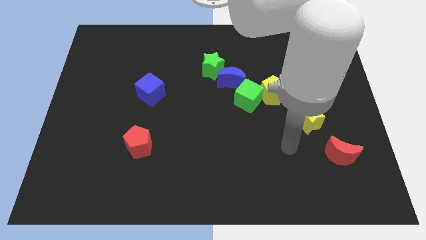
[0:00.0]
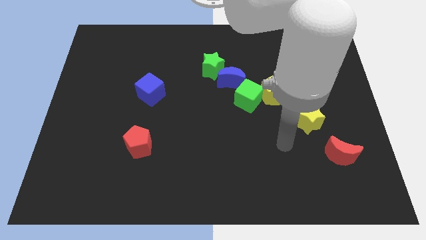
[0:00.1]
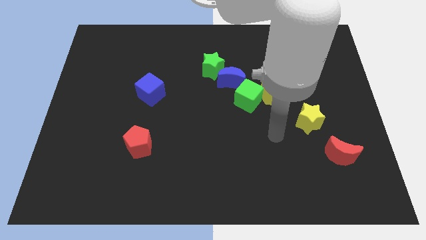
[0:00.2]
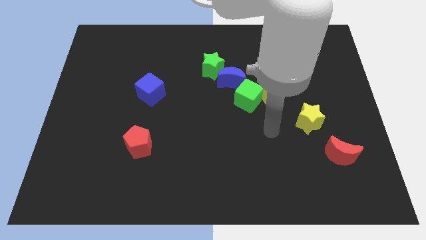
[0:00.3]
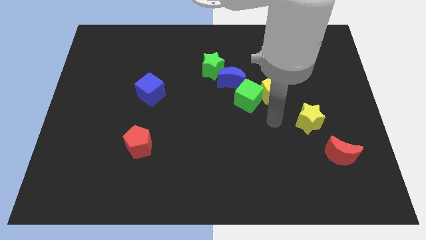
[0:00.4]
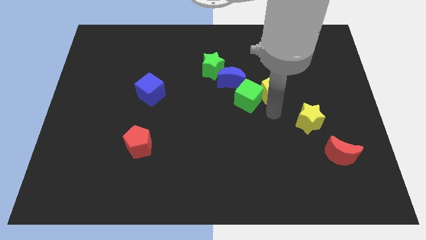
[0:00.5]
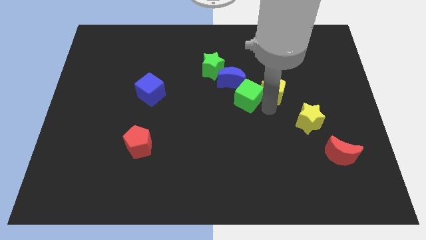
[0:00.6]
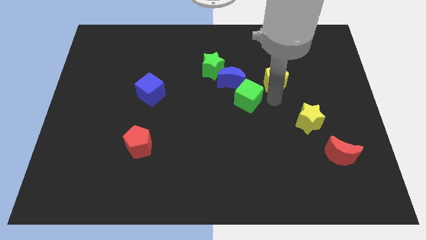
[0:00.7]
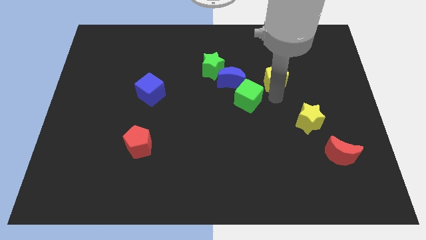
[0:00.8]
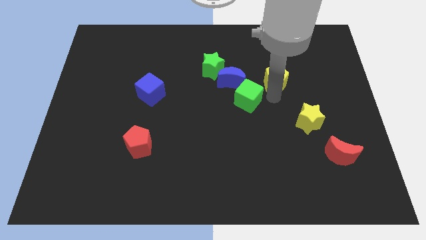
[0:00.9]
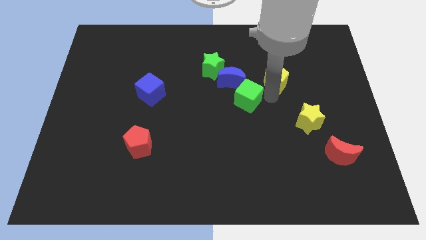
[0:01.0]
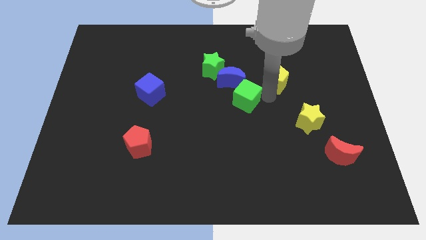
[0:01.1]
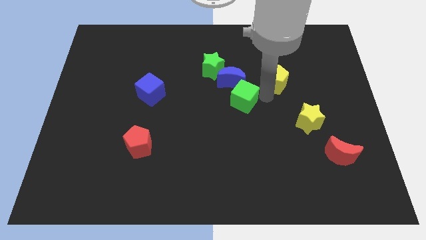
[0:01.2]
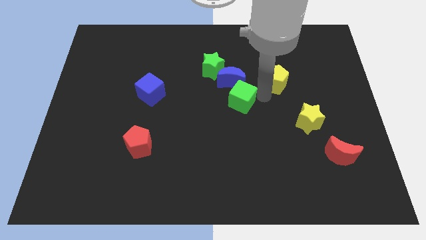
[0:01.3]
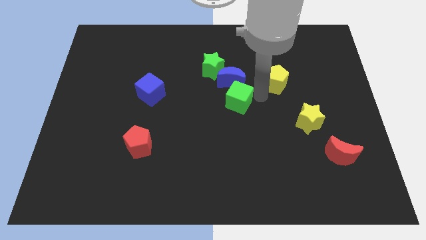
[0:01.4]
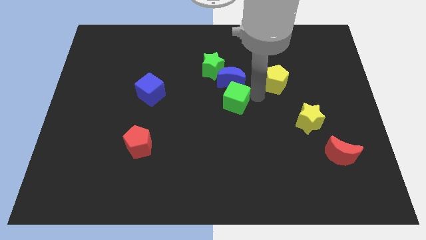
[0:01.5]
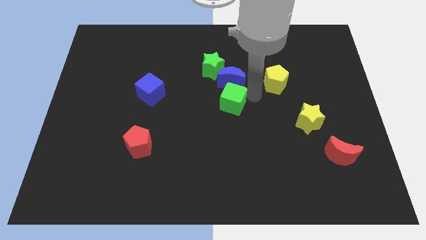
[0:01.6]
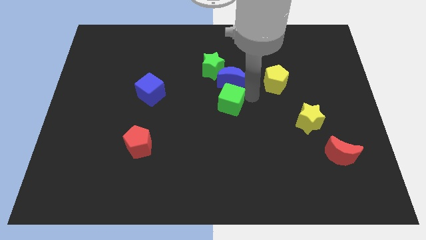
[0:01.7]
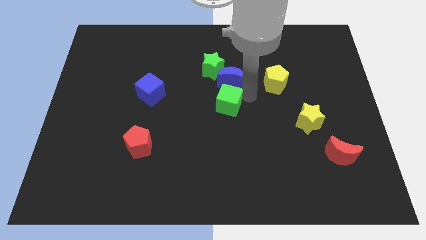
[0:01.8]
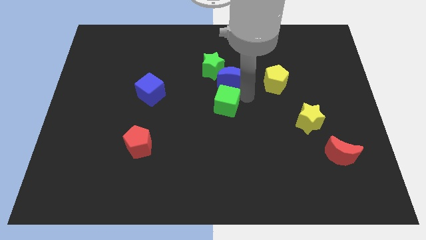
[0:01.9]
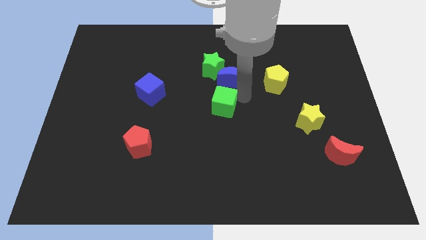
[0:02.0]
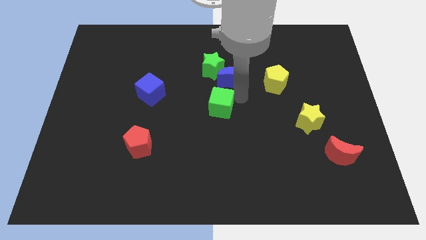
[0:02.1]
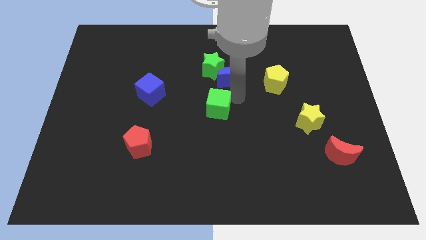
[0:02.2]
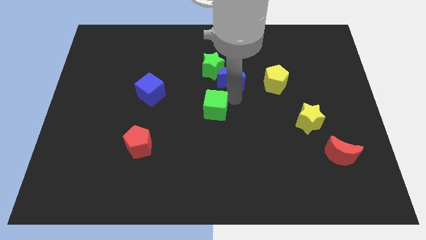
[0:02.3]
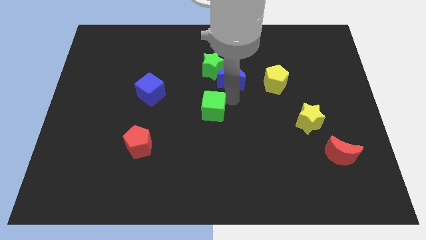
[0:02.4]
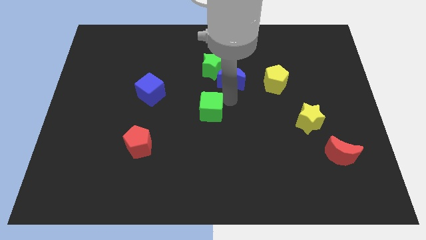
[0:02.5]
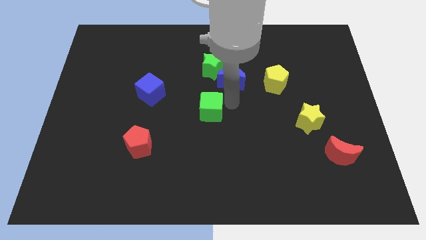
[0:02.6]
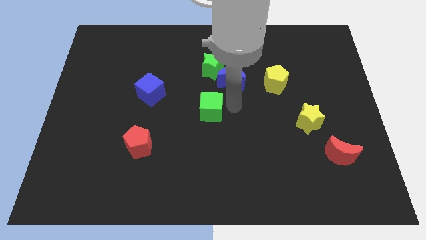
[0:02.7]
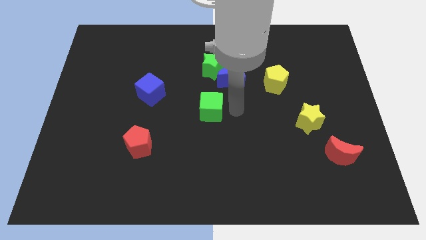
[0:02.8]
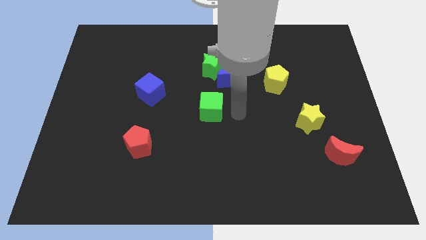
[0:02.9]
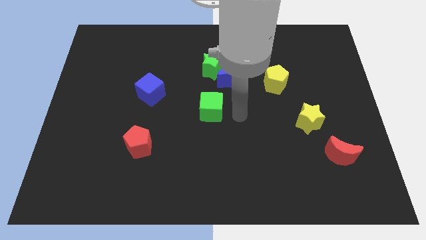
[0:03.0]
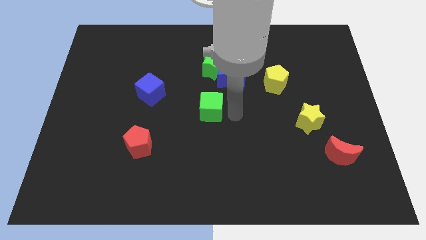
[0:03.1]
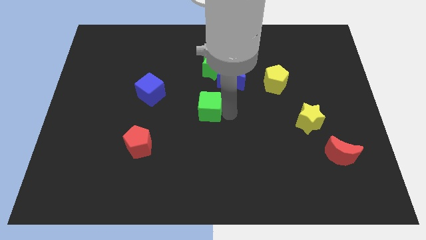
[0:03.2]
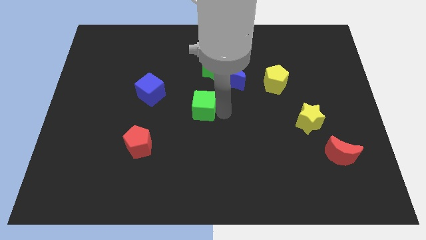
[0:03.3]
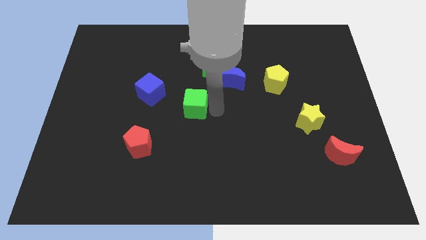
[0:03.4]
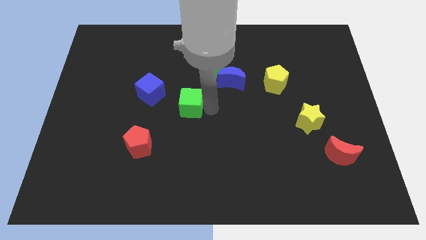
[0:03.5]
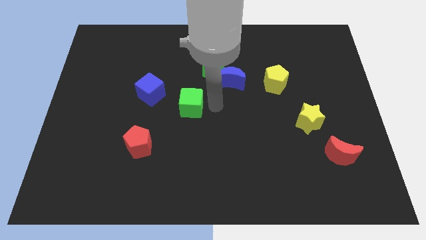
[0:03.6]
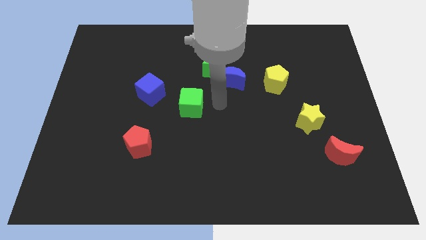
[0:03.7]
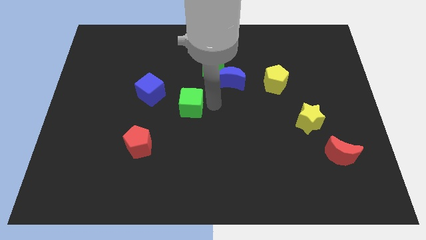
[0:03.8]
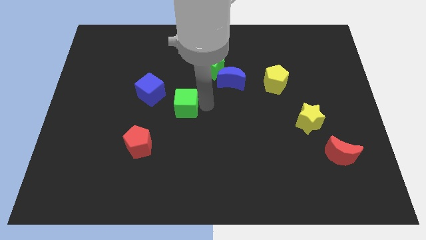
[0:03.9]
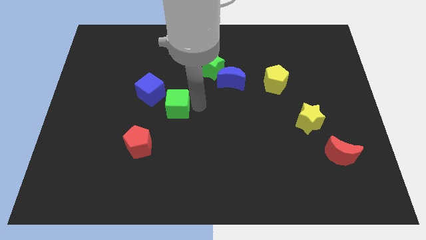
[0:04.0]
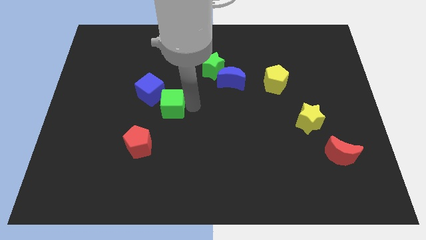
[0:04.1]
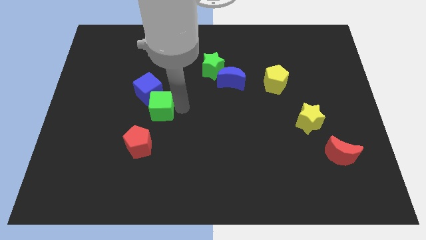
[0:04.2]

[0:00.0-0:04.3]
push the green cube to the left

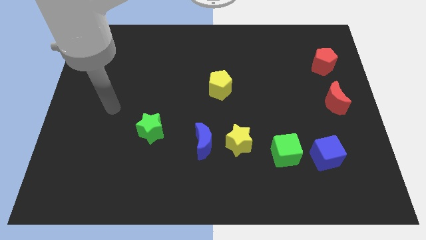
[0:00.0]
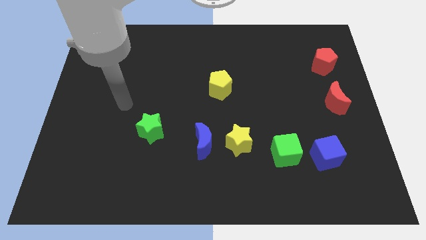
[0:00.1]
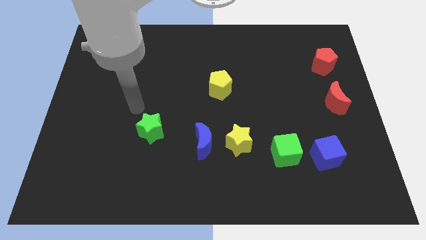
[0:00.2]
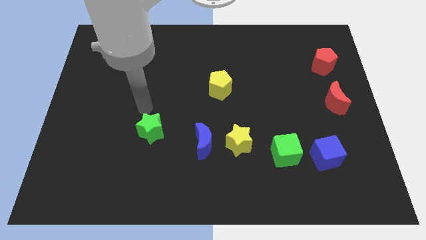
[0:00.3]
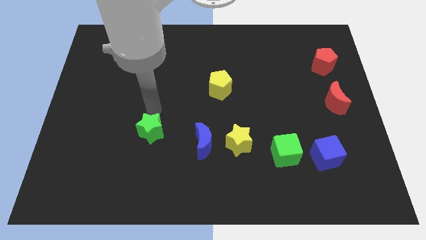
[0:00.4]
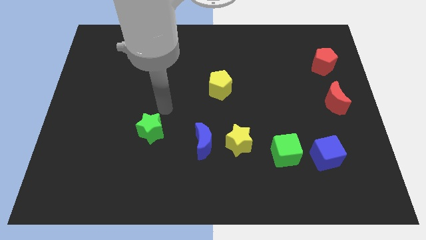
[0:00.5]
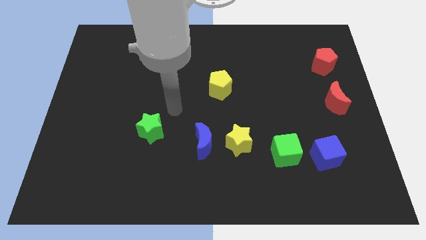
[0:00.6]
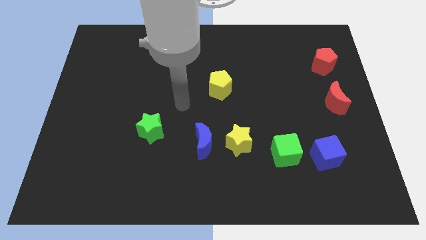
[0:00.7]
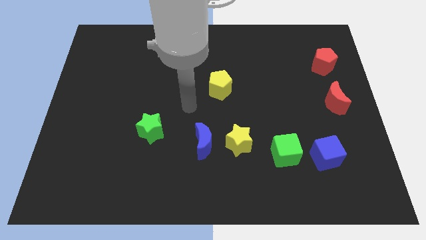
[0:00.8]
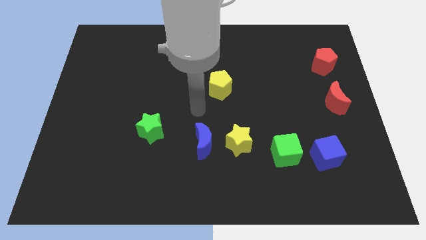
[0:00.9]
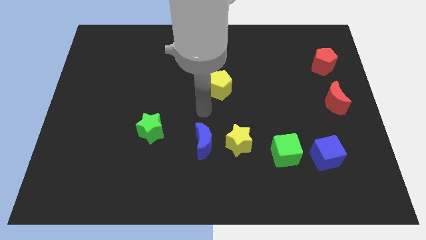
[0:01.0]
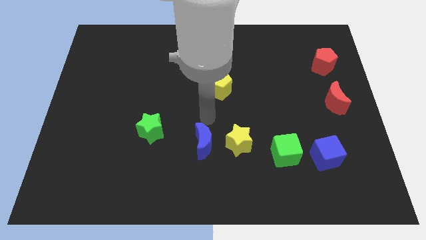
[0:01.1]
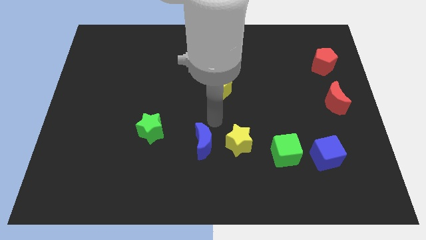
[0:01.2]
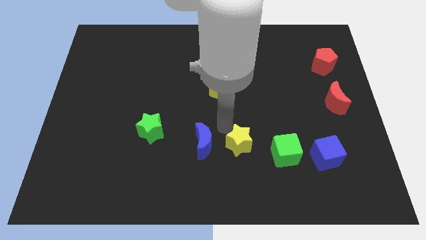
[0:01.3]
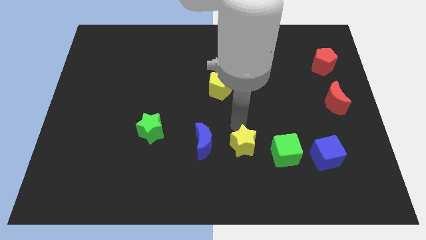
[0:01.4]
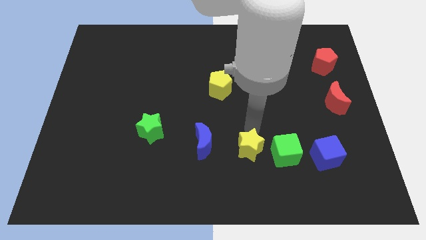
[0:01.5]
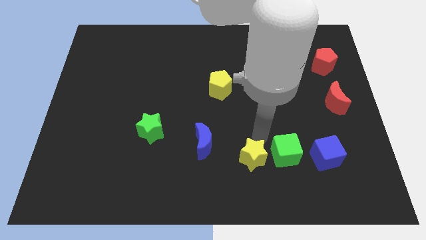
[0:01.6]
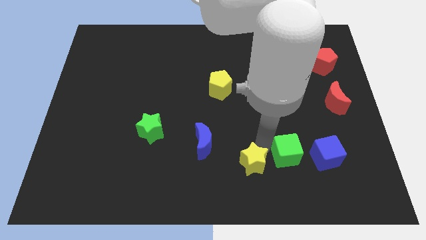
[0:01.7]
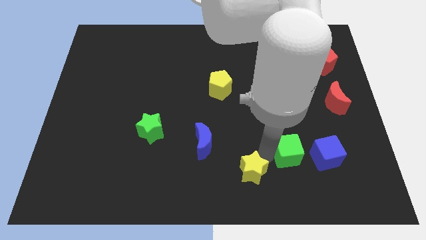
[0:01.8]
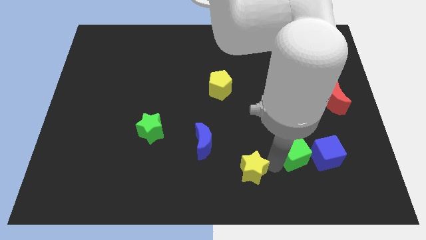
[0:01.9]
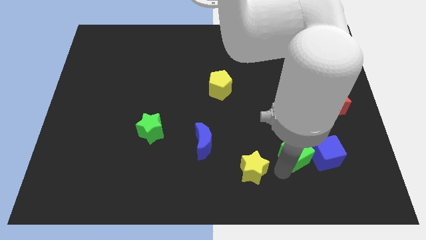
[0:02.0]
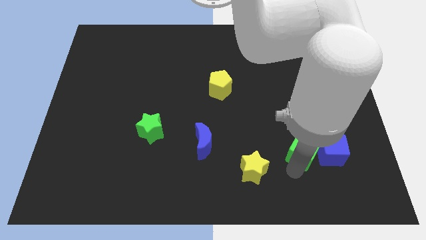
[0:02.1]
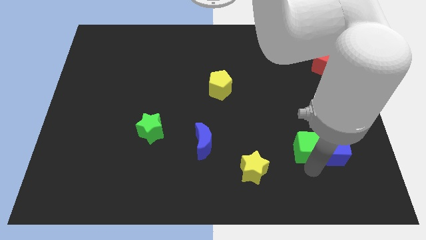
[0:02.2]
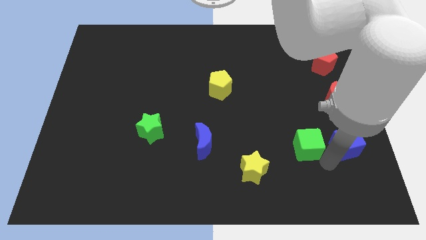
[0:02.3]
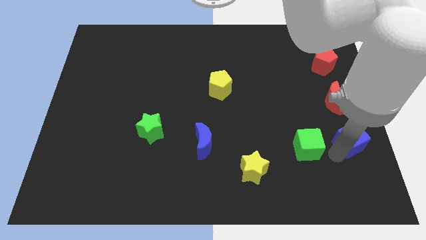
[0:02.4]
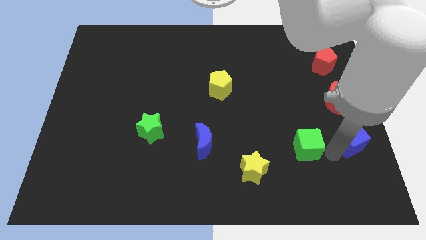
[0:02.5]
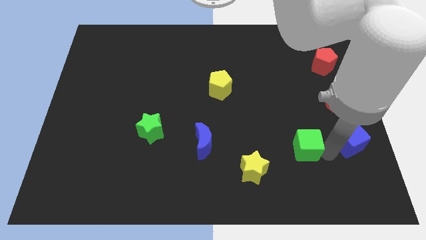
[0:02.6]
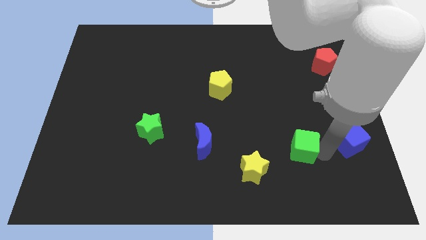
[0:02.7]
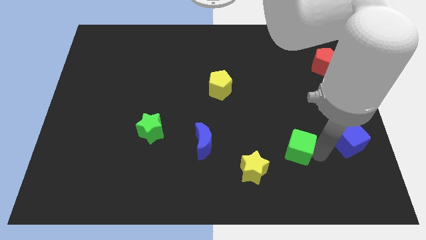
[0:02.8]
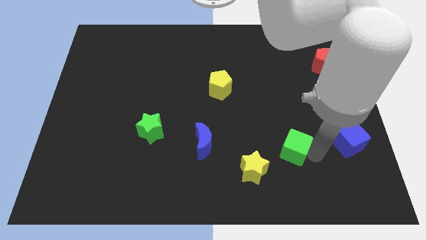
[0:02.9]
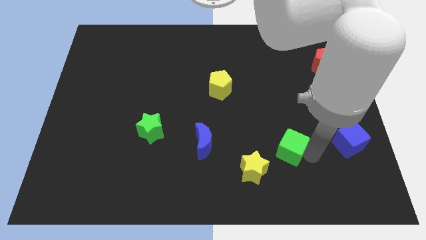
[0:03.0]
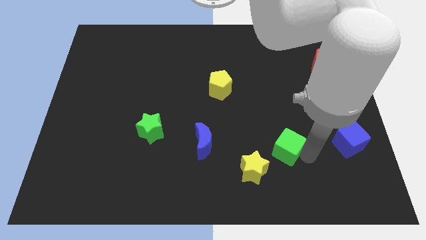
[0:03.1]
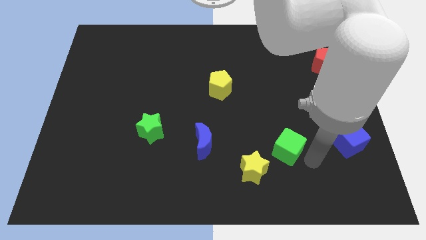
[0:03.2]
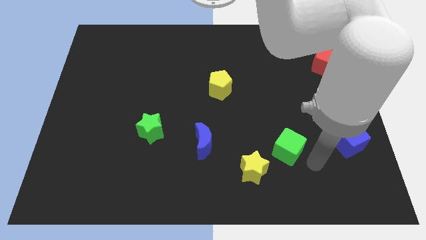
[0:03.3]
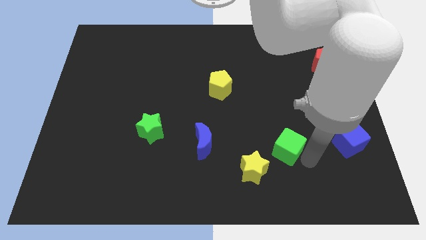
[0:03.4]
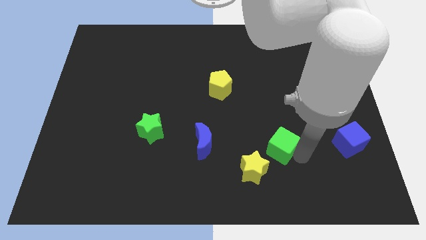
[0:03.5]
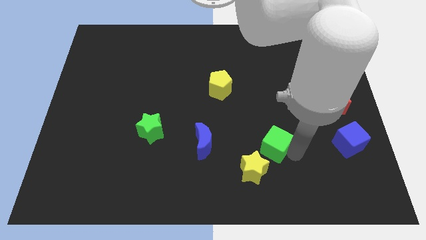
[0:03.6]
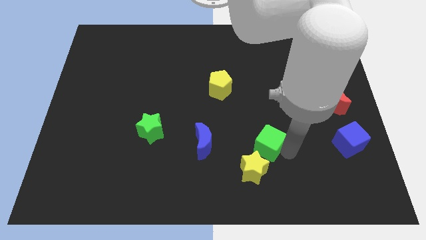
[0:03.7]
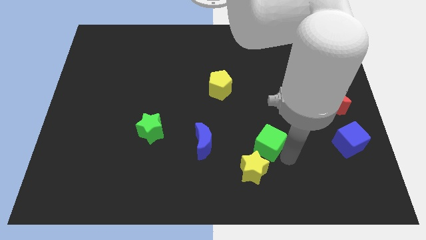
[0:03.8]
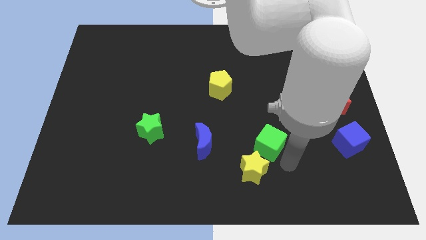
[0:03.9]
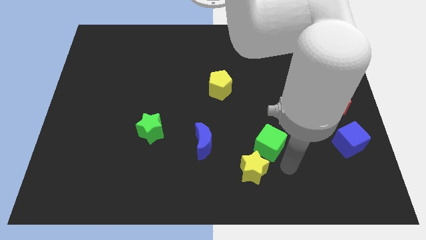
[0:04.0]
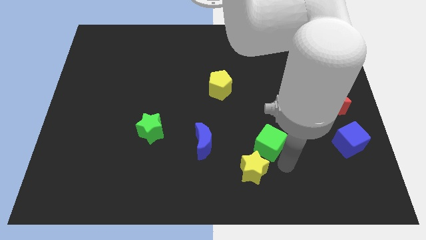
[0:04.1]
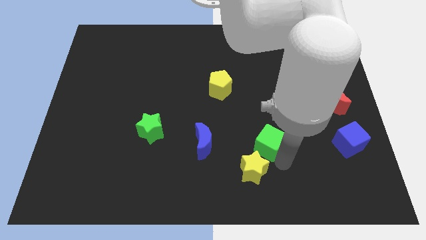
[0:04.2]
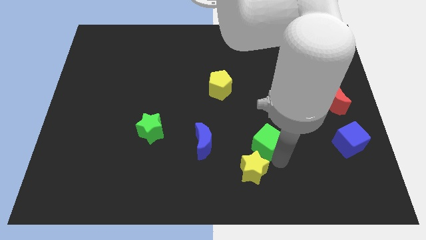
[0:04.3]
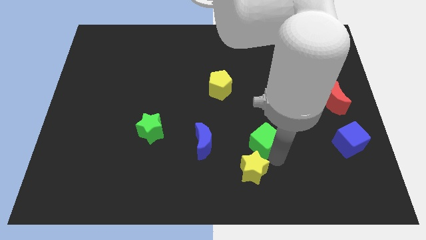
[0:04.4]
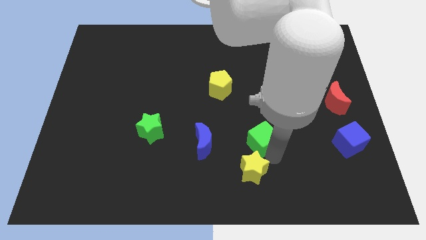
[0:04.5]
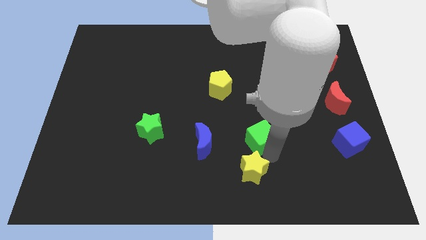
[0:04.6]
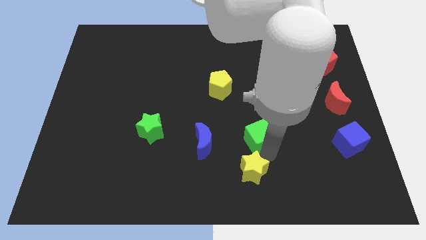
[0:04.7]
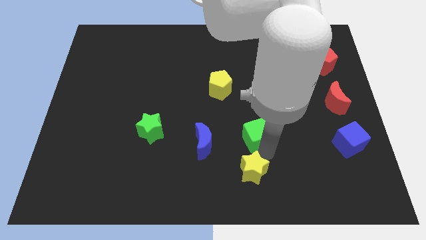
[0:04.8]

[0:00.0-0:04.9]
slide the green cube a little upwards and to the left diagonally
